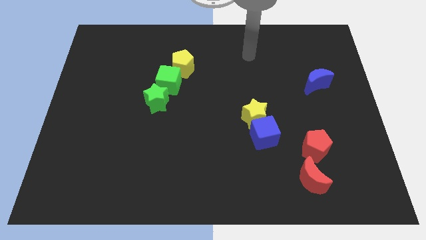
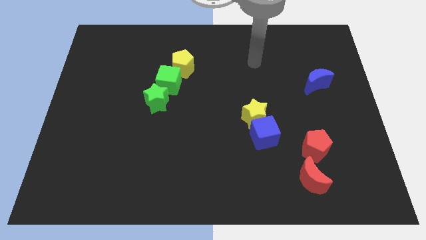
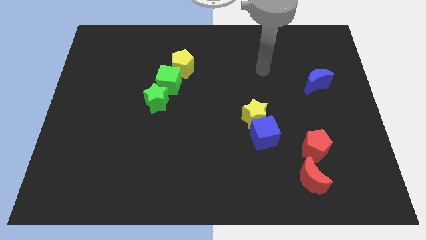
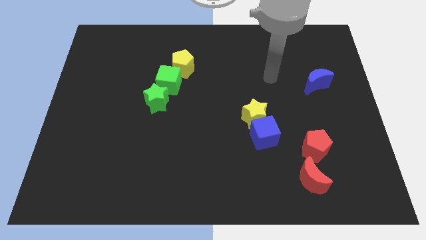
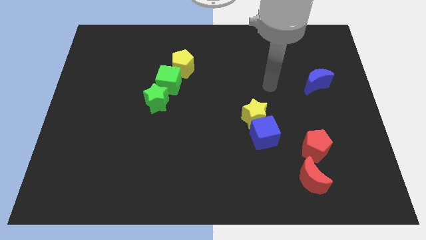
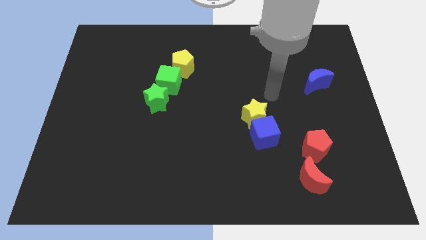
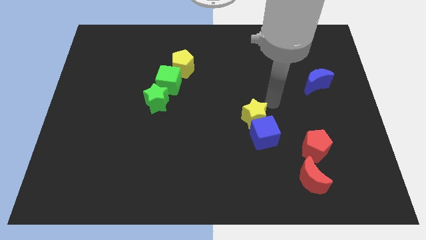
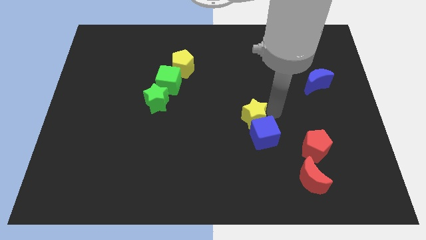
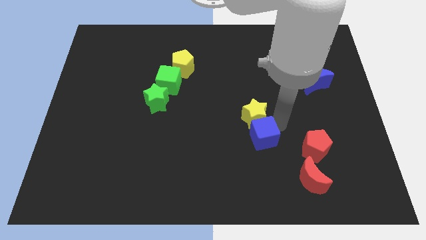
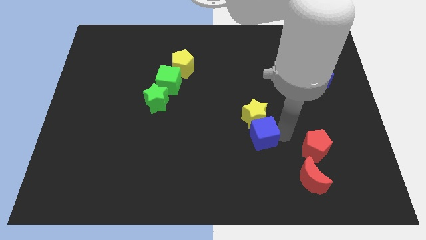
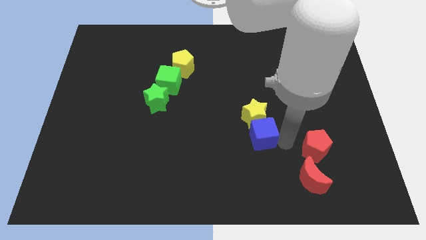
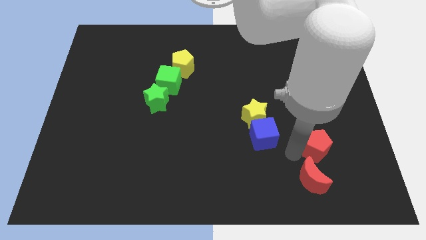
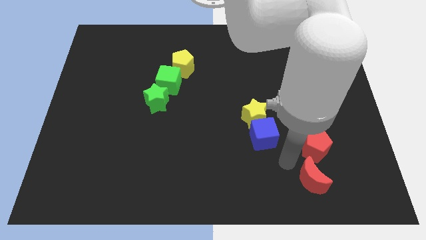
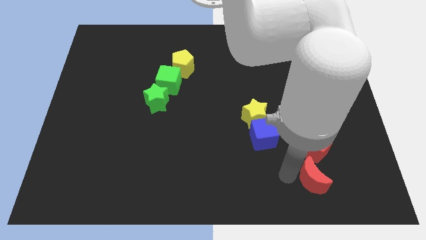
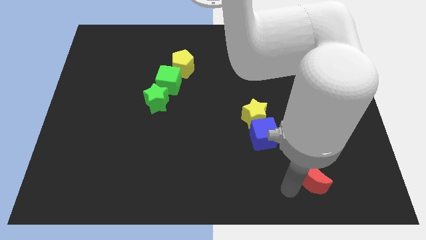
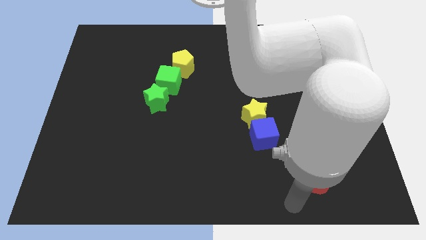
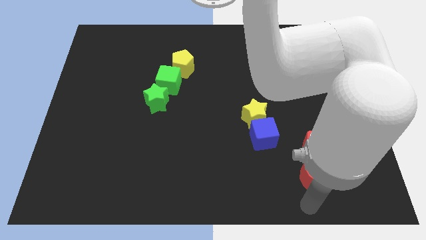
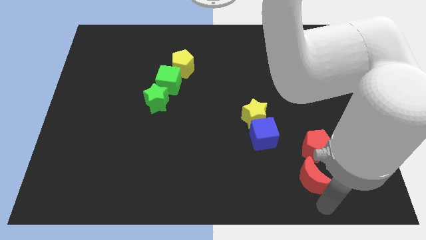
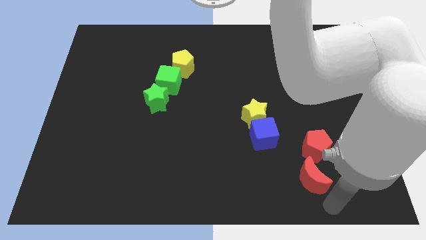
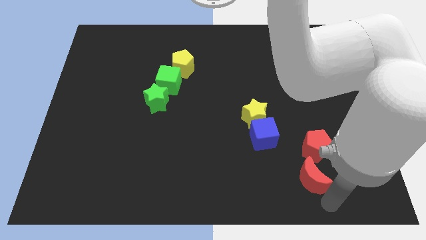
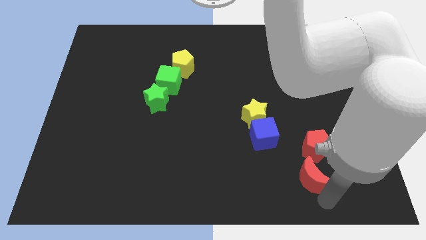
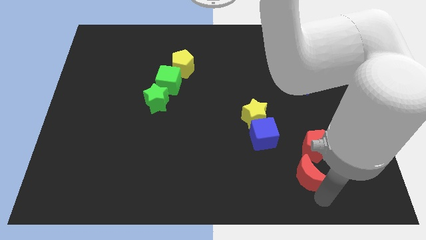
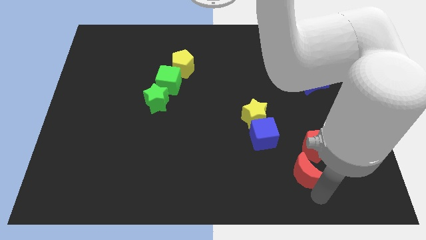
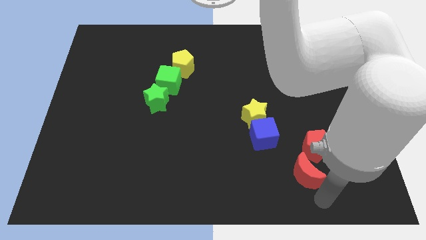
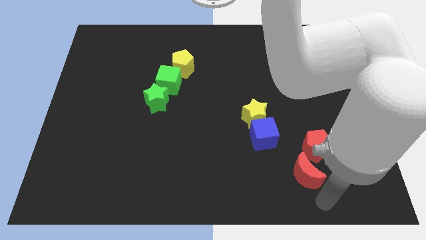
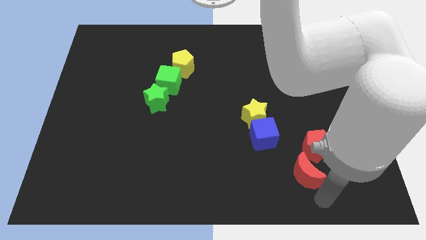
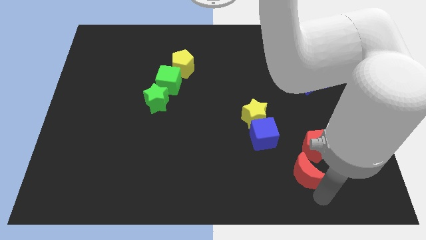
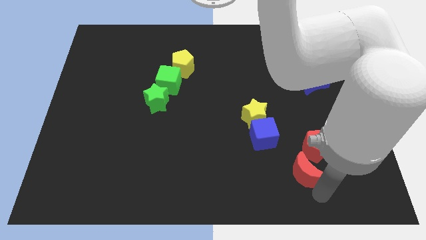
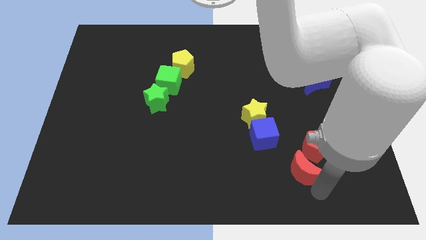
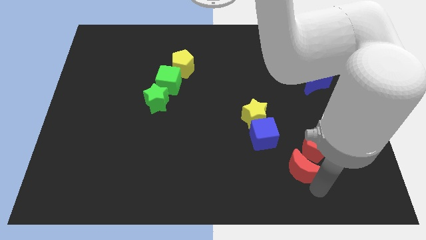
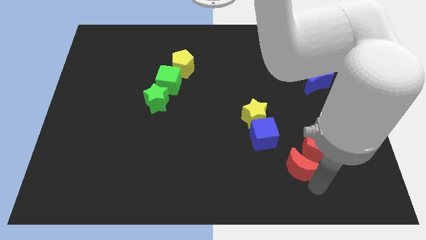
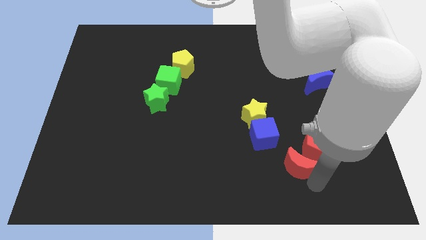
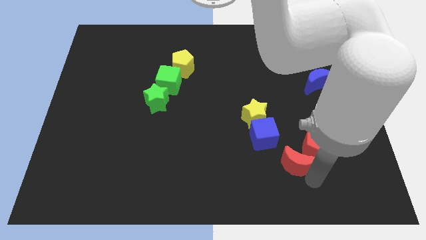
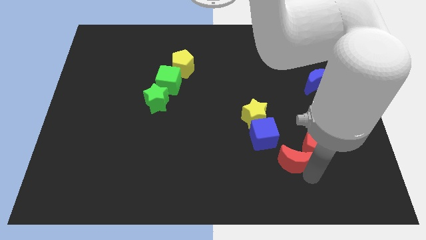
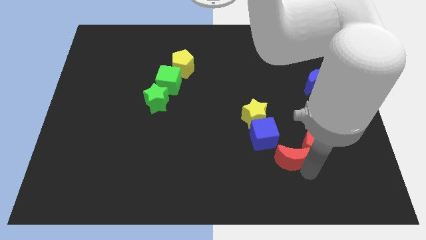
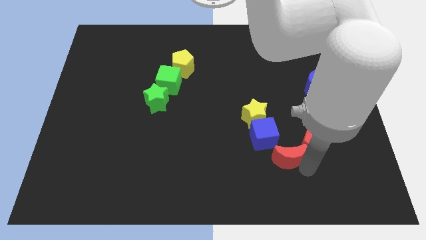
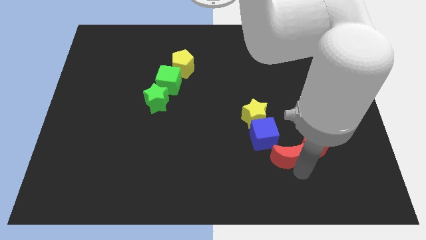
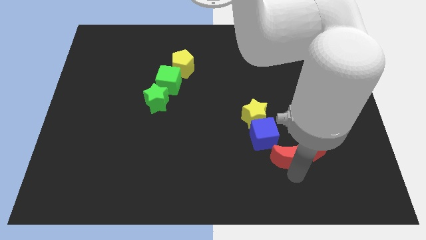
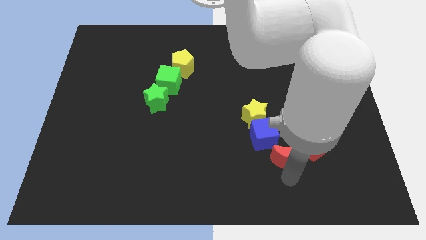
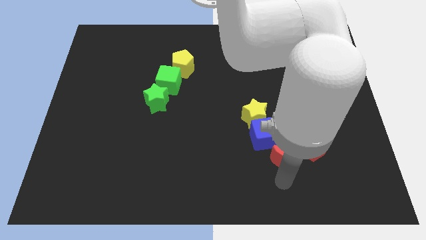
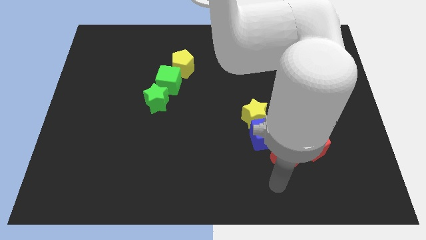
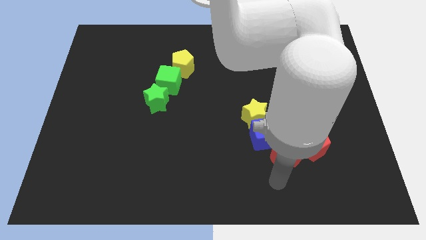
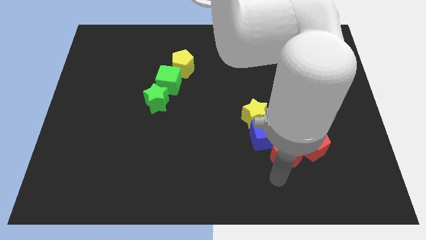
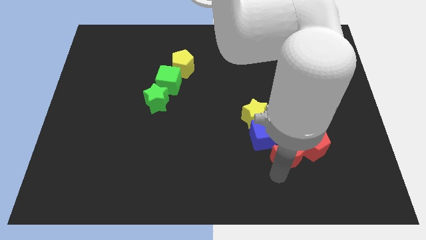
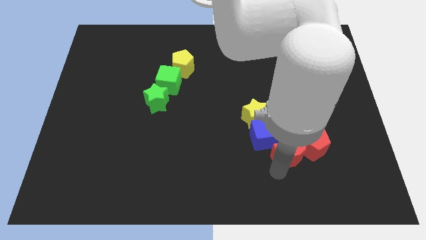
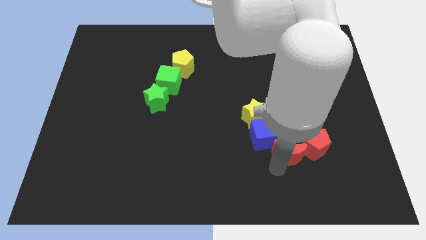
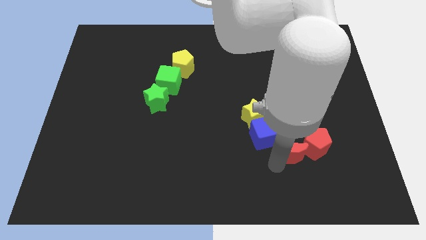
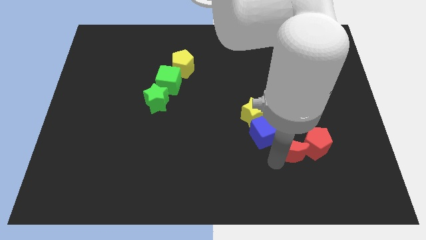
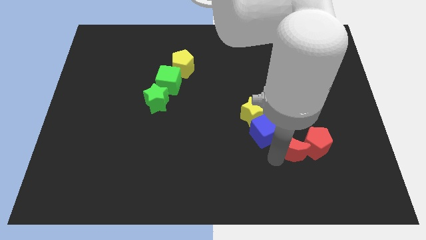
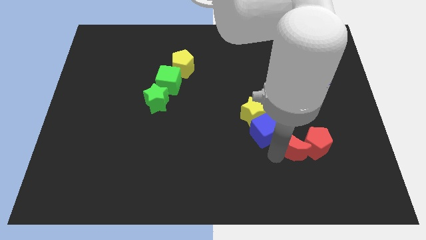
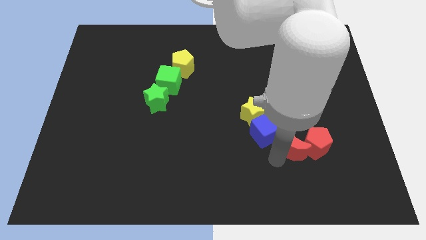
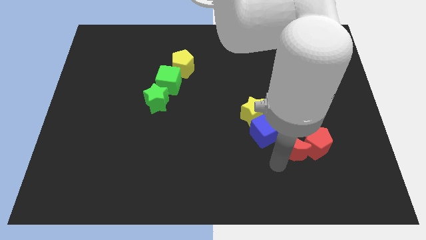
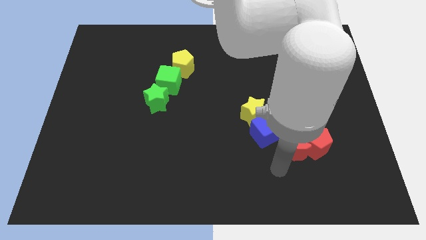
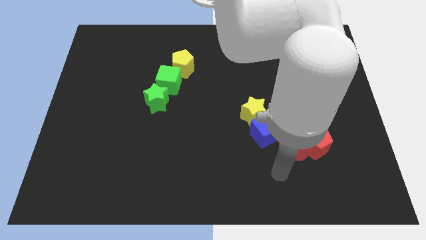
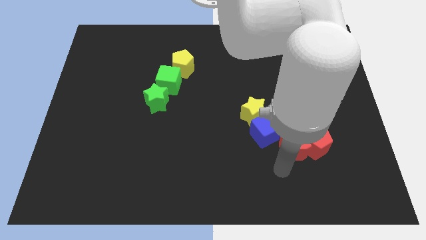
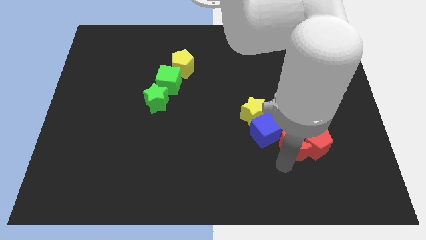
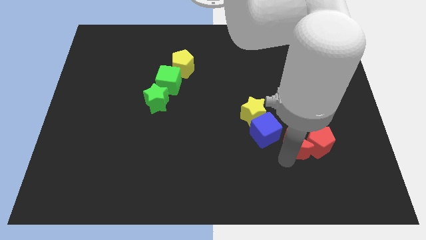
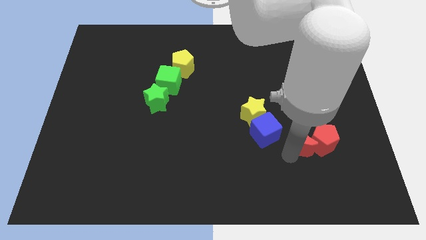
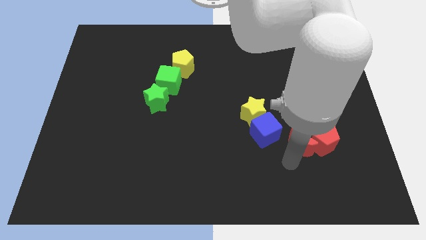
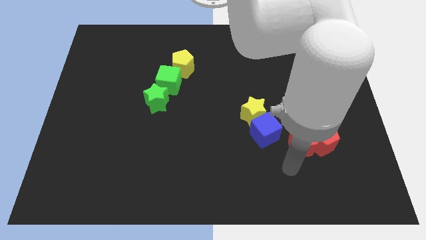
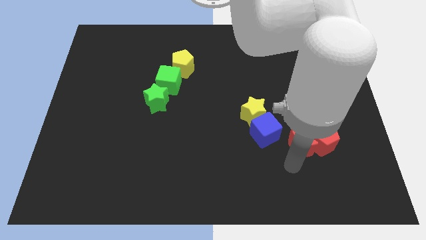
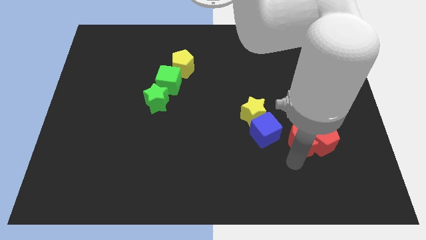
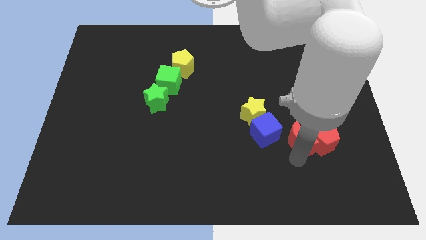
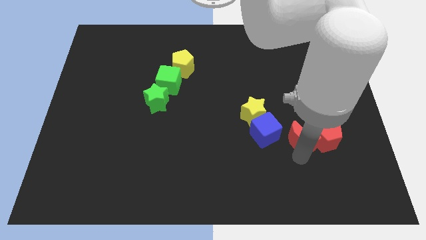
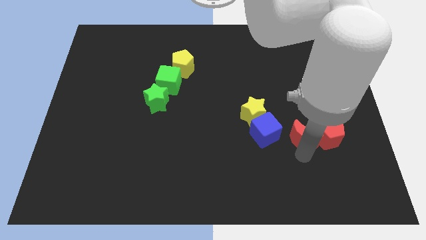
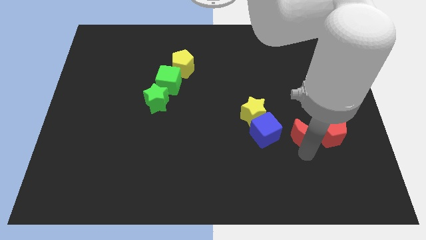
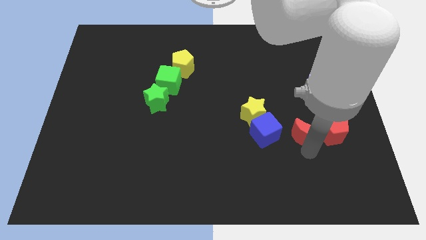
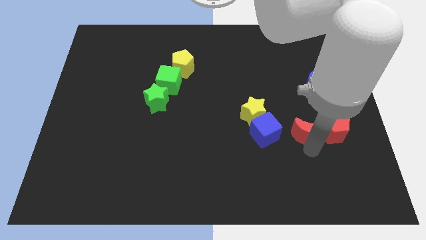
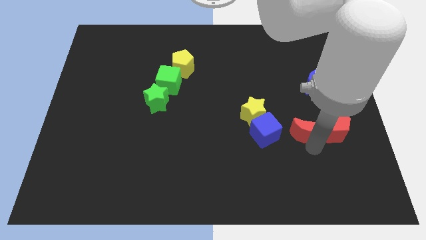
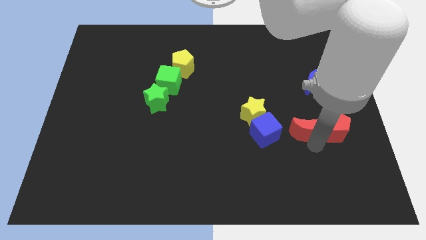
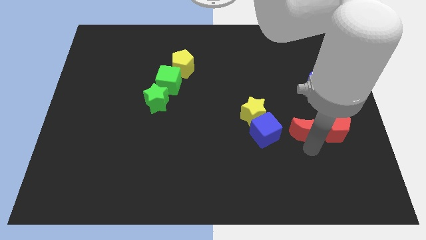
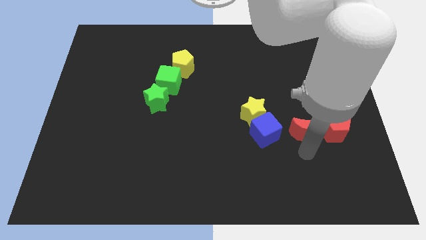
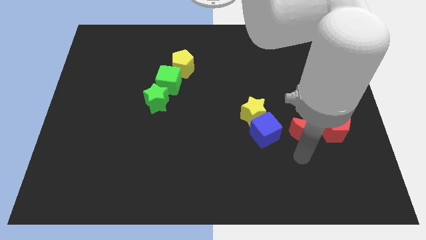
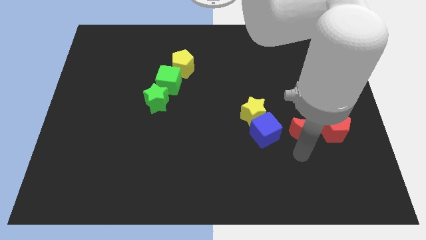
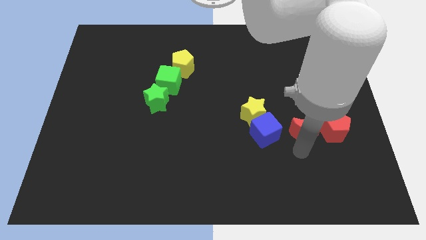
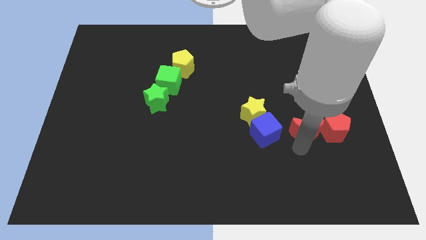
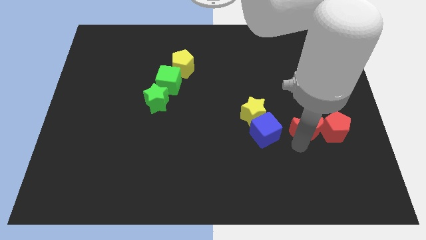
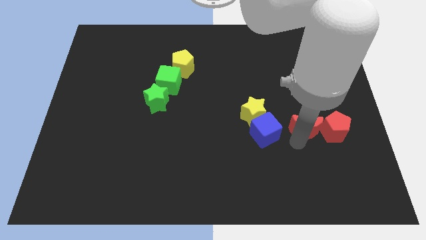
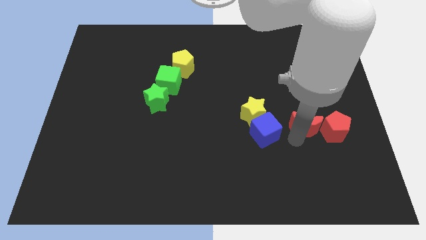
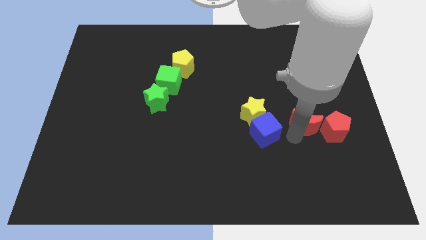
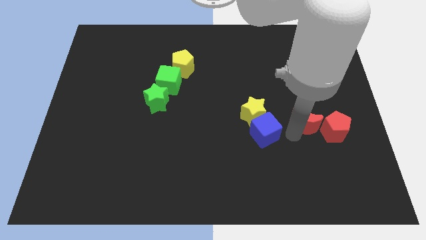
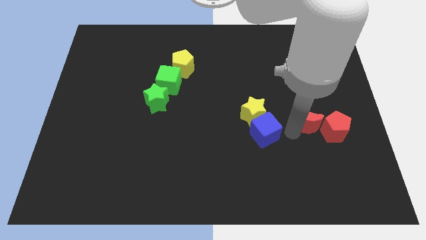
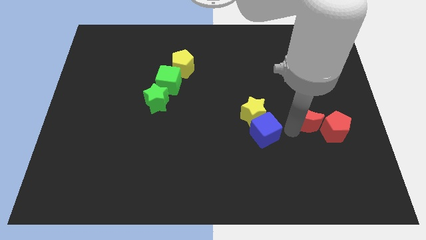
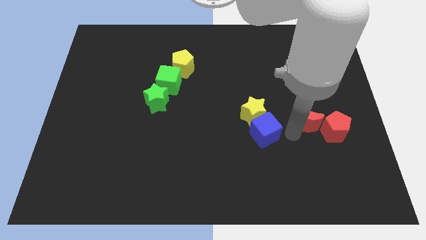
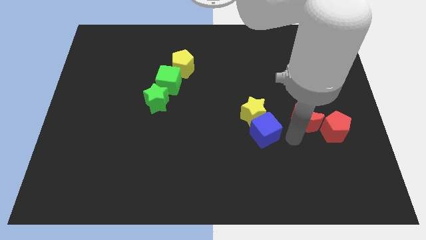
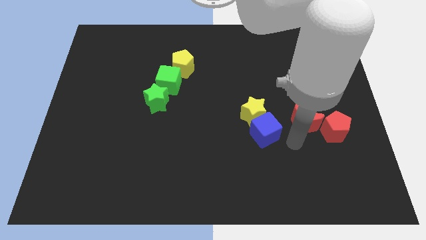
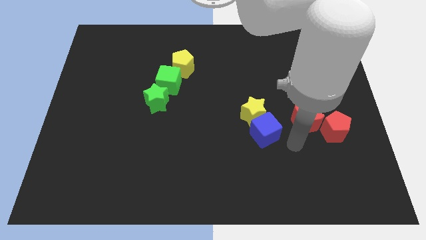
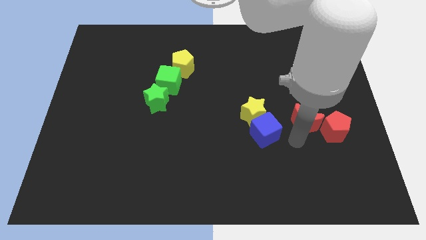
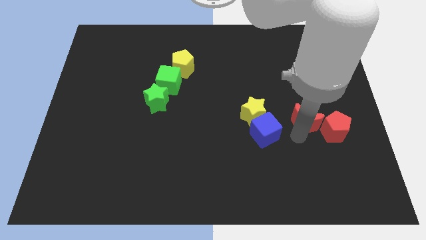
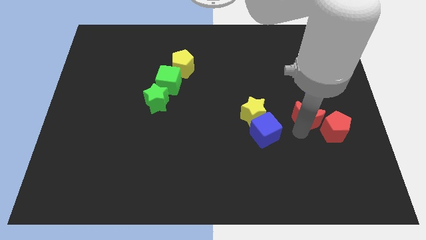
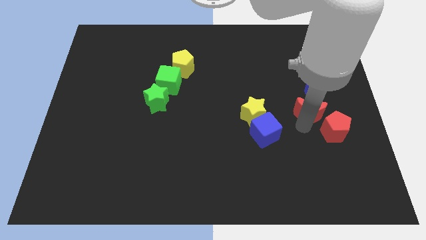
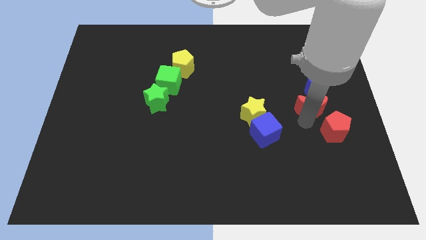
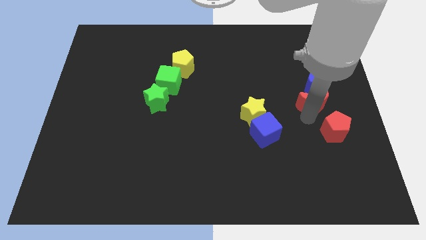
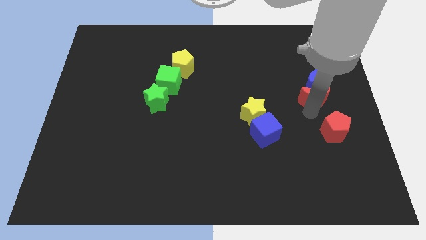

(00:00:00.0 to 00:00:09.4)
move the red moon next to the blue moon
